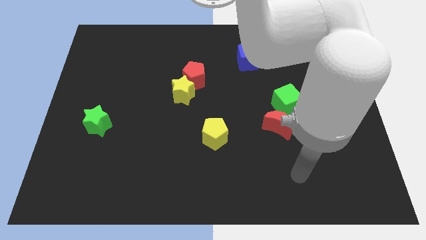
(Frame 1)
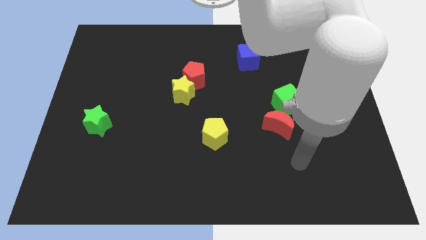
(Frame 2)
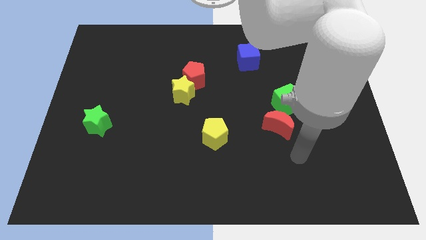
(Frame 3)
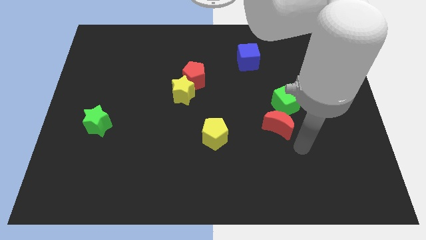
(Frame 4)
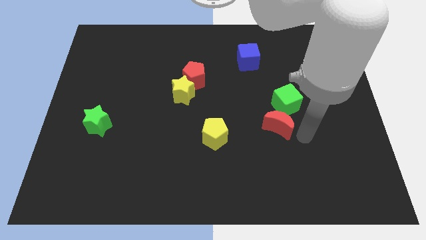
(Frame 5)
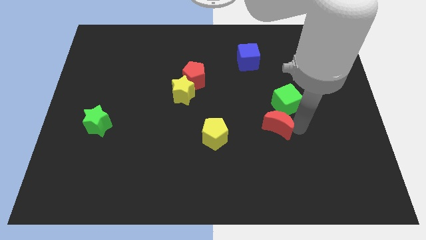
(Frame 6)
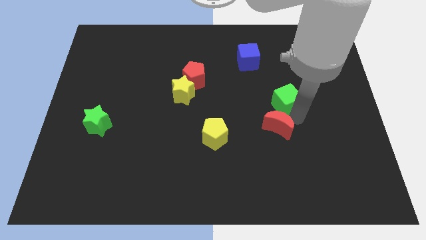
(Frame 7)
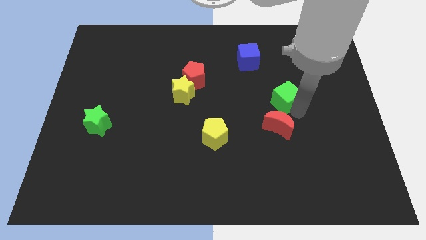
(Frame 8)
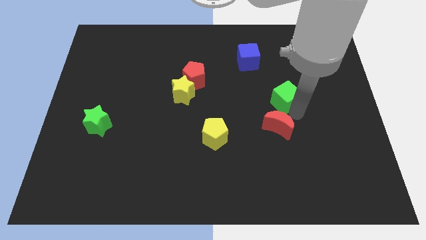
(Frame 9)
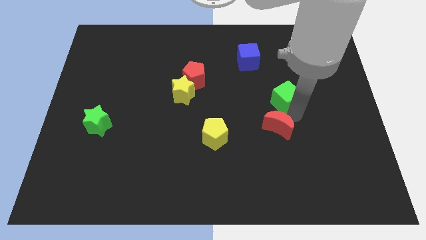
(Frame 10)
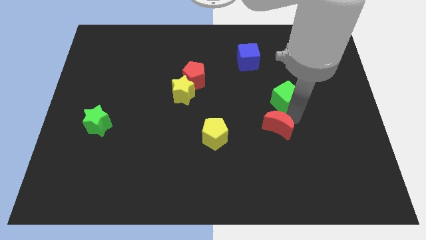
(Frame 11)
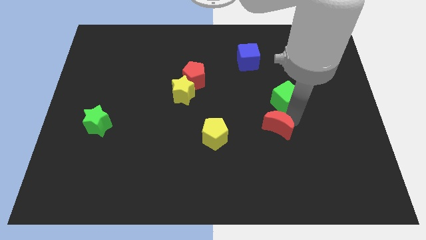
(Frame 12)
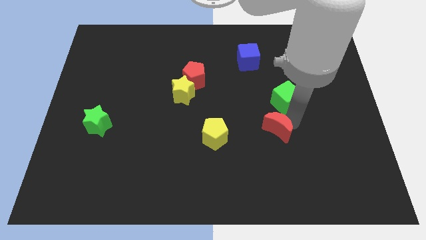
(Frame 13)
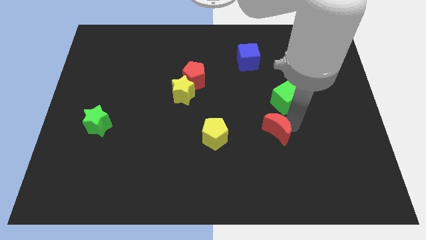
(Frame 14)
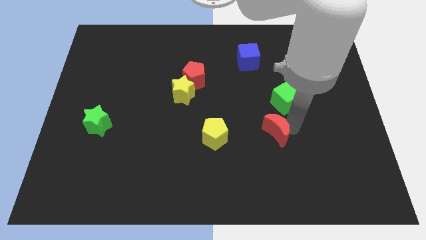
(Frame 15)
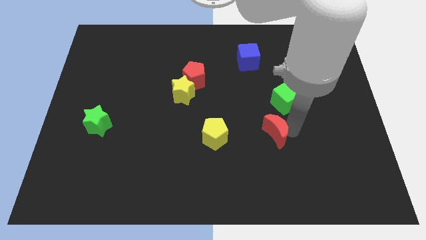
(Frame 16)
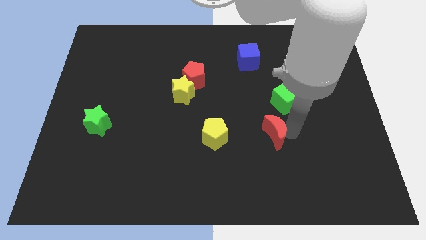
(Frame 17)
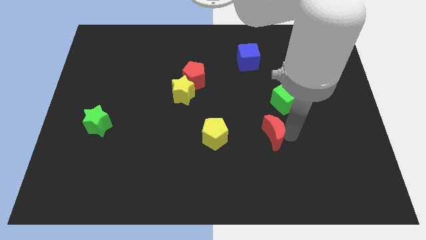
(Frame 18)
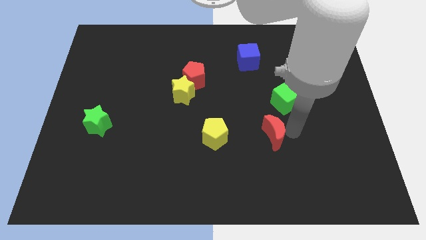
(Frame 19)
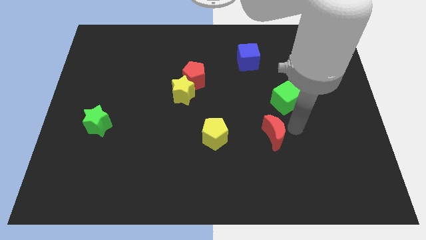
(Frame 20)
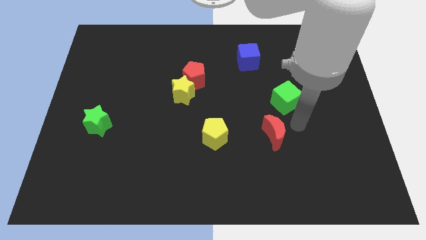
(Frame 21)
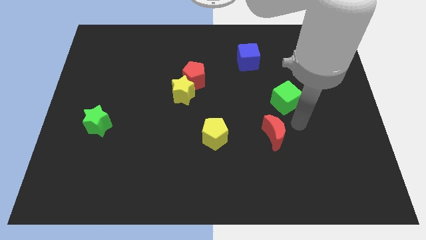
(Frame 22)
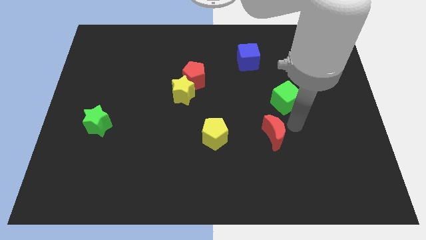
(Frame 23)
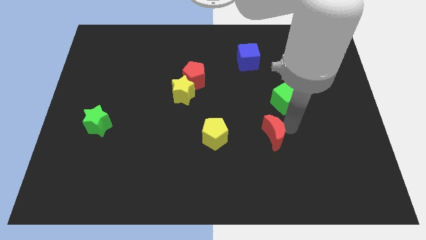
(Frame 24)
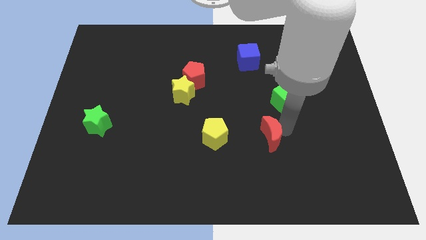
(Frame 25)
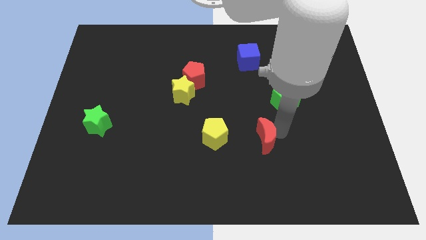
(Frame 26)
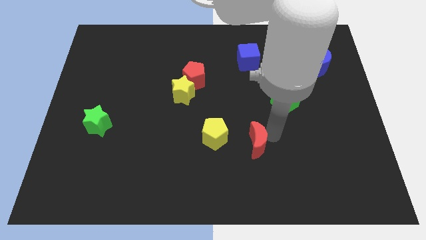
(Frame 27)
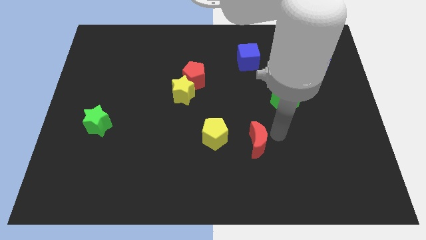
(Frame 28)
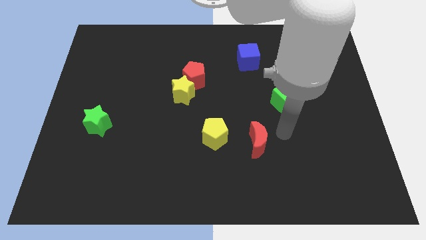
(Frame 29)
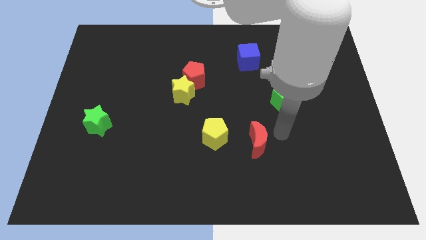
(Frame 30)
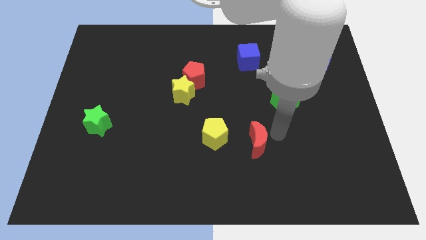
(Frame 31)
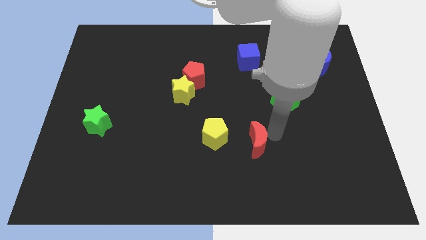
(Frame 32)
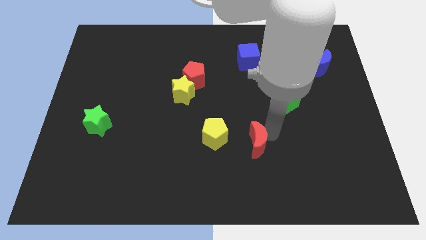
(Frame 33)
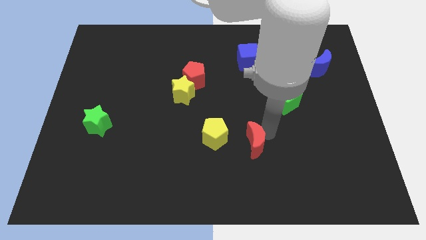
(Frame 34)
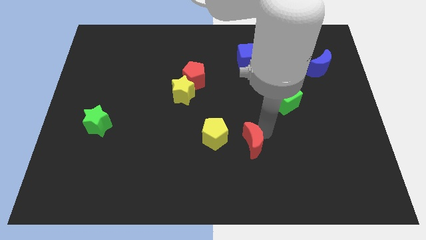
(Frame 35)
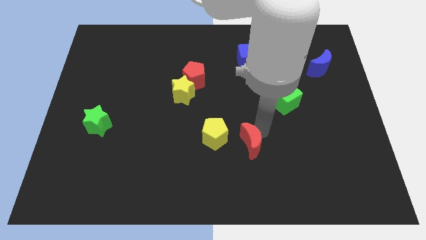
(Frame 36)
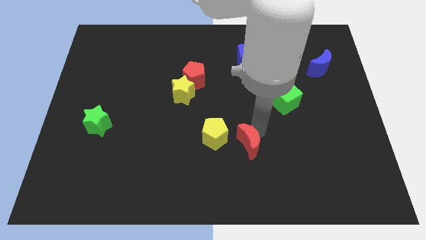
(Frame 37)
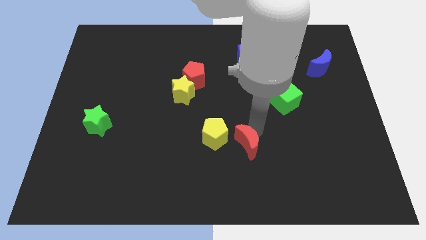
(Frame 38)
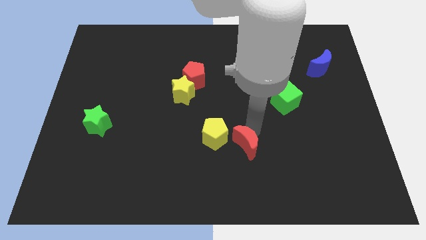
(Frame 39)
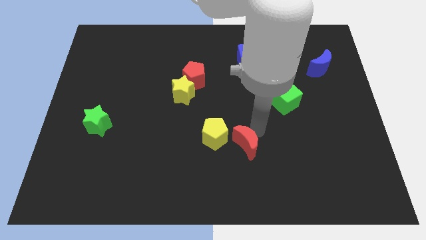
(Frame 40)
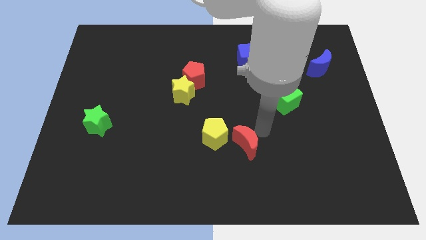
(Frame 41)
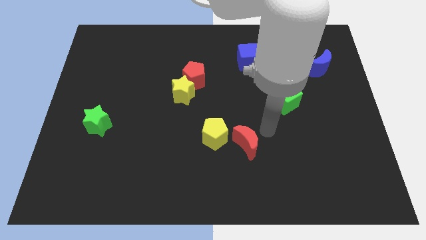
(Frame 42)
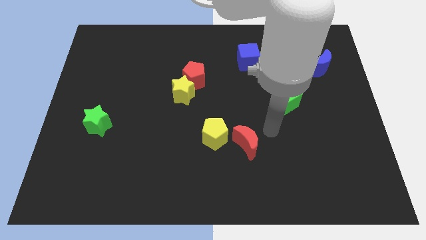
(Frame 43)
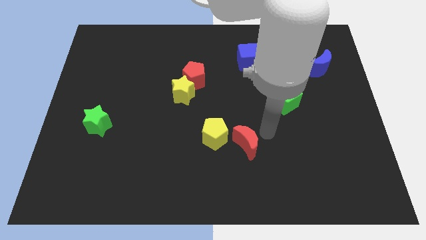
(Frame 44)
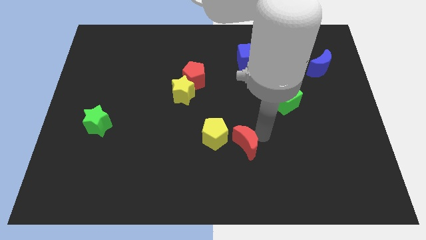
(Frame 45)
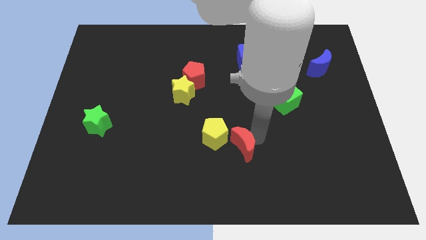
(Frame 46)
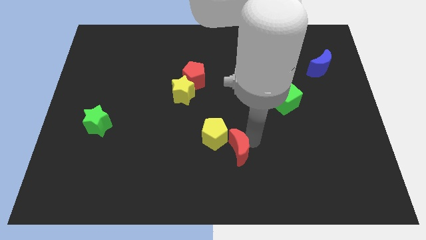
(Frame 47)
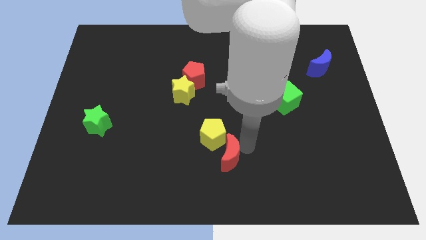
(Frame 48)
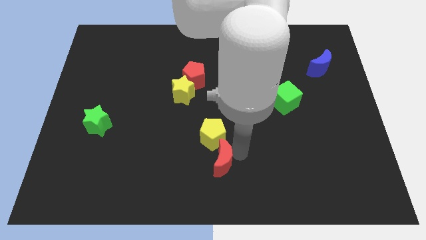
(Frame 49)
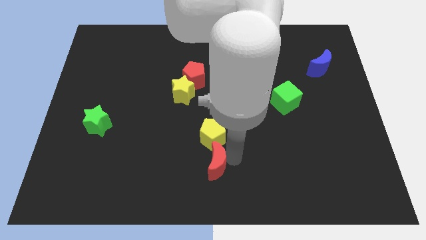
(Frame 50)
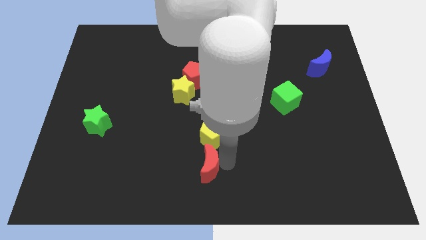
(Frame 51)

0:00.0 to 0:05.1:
move the red moon to the bottom left of the yellow pentagon

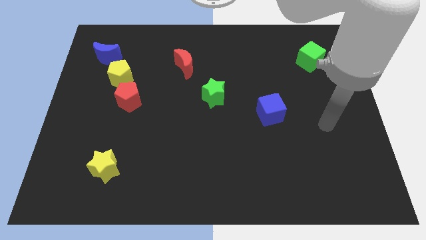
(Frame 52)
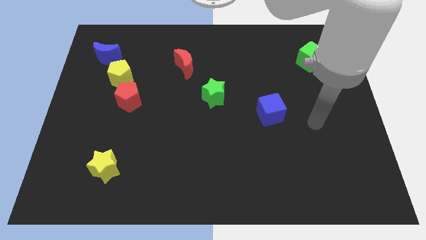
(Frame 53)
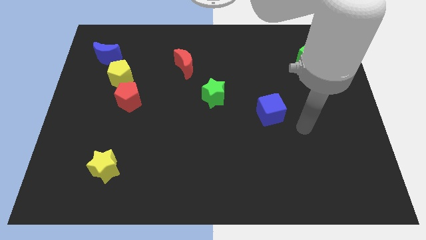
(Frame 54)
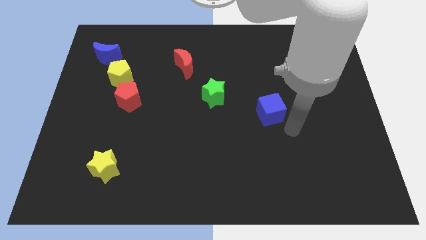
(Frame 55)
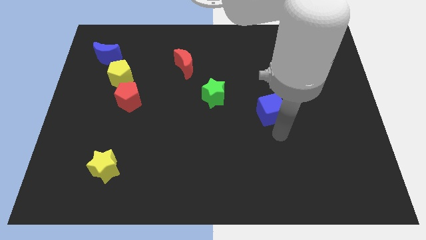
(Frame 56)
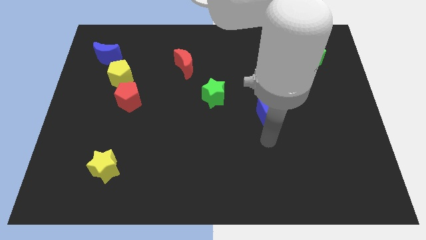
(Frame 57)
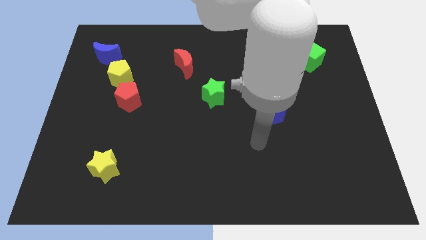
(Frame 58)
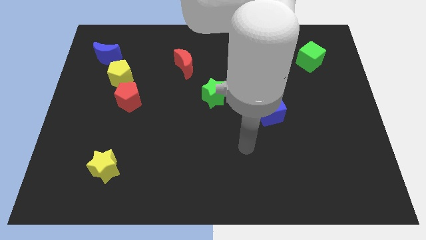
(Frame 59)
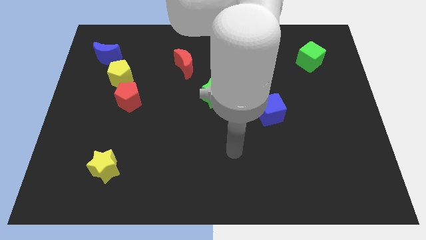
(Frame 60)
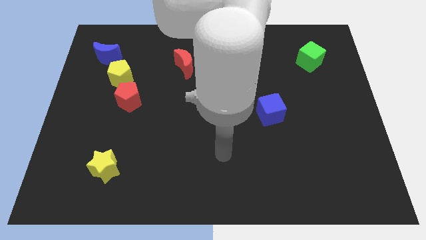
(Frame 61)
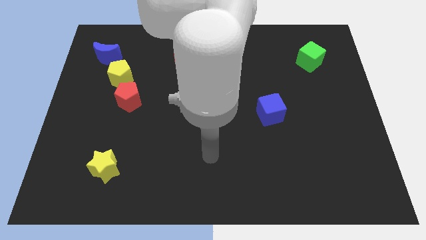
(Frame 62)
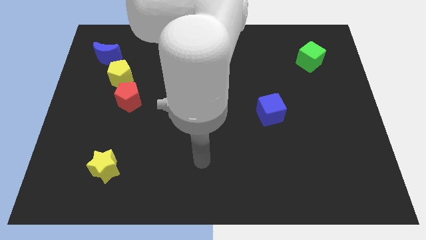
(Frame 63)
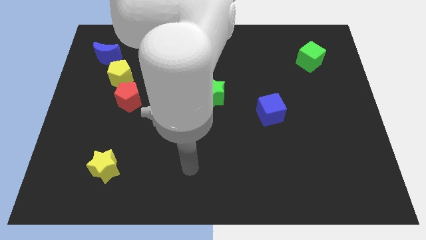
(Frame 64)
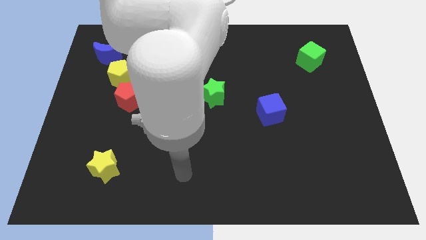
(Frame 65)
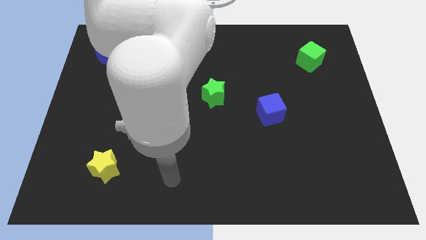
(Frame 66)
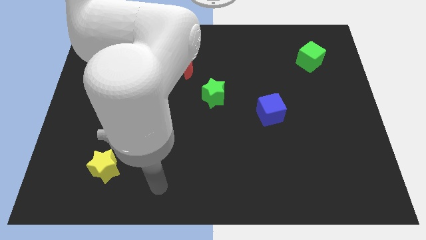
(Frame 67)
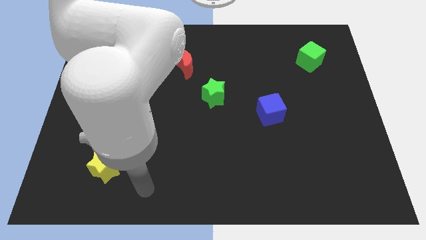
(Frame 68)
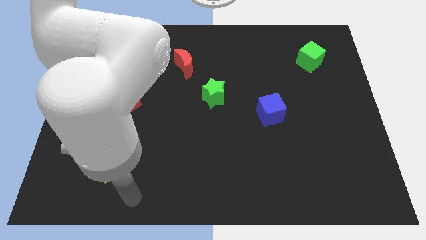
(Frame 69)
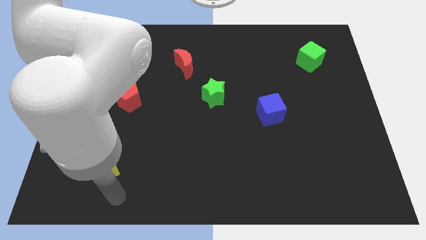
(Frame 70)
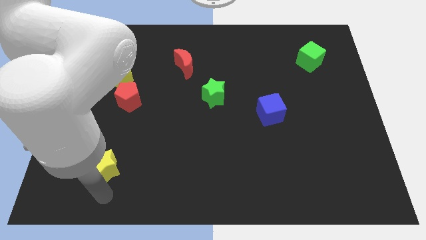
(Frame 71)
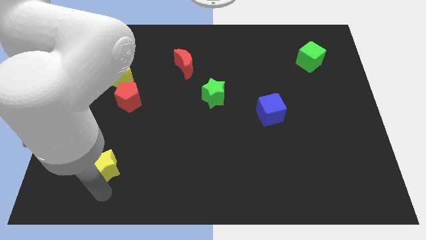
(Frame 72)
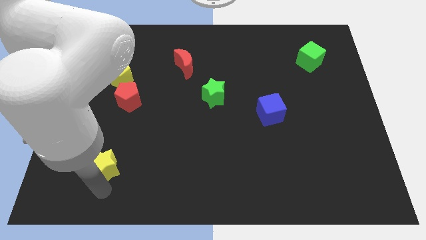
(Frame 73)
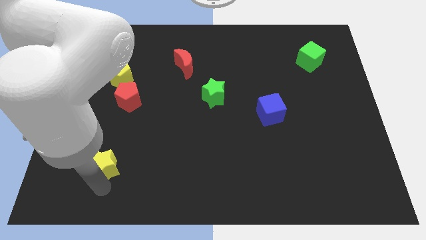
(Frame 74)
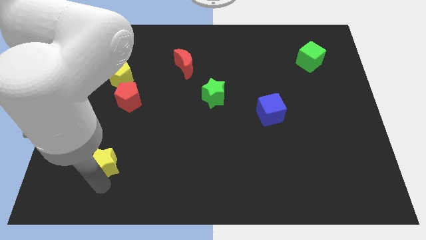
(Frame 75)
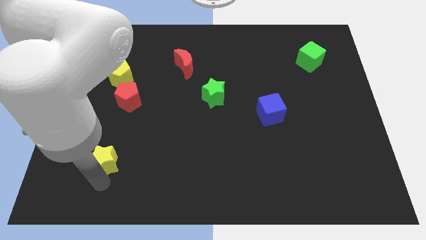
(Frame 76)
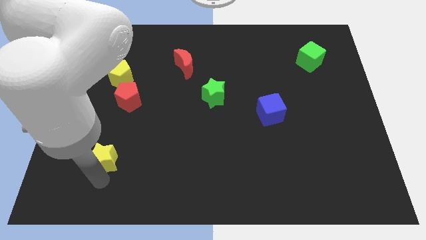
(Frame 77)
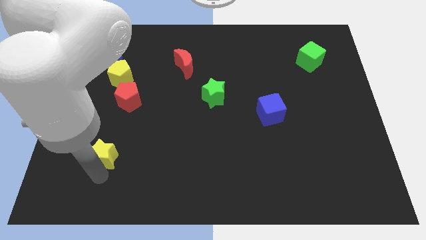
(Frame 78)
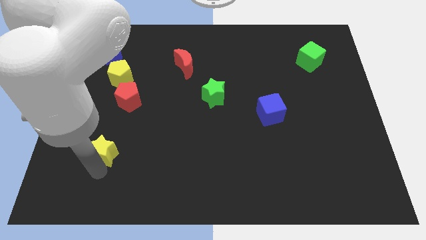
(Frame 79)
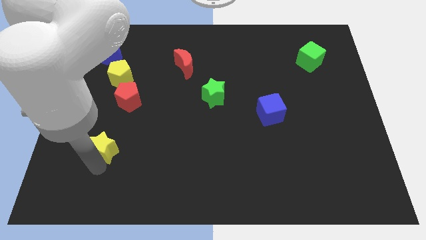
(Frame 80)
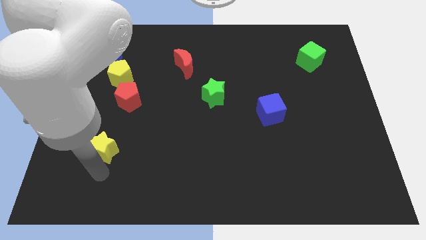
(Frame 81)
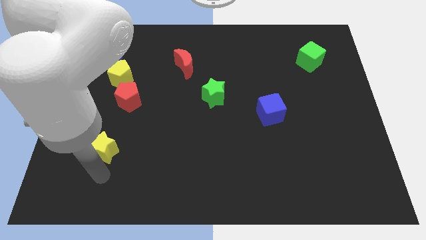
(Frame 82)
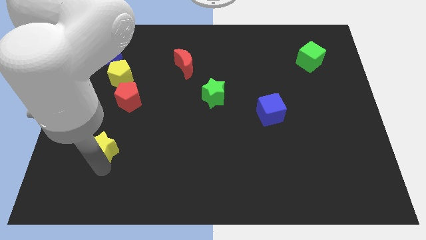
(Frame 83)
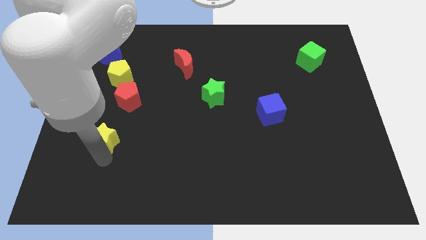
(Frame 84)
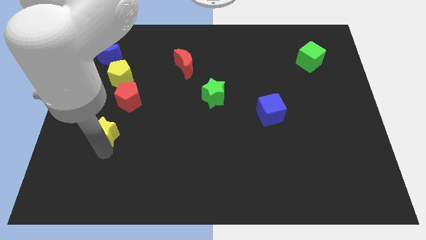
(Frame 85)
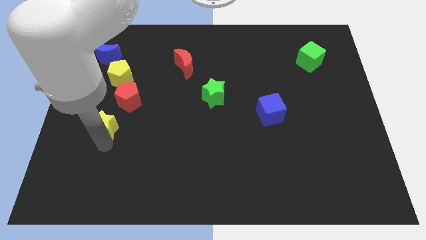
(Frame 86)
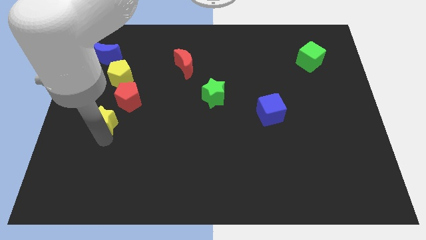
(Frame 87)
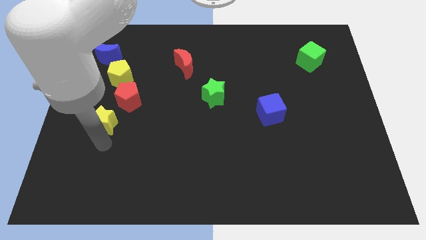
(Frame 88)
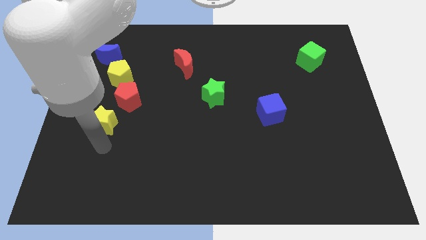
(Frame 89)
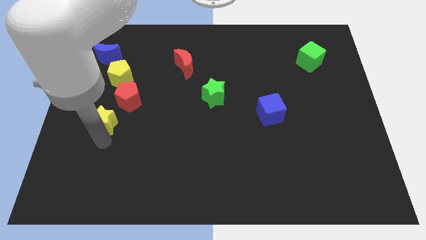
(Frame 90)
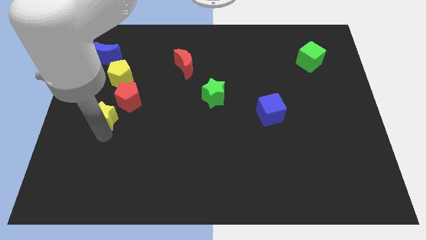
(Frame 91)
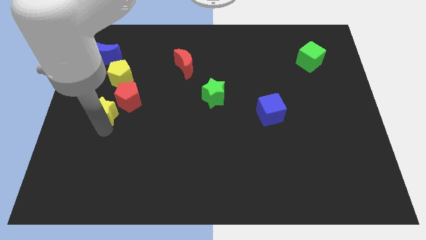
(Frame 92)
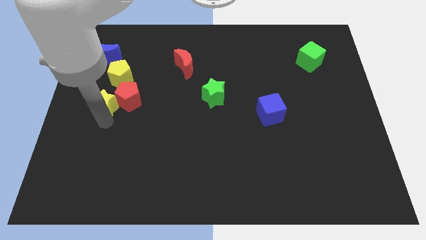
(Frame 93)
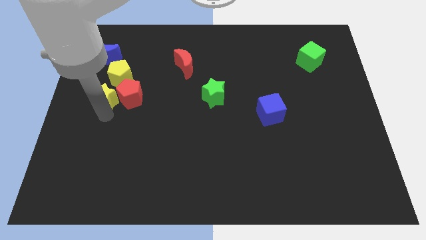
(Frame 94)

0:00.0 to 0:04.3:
move the yellow star to the top left of the red pentagon
